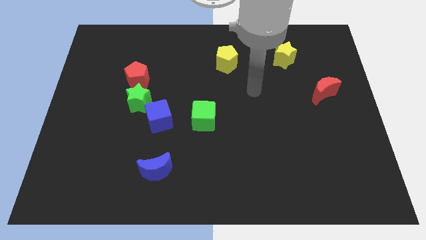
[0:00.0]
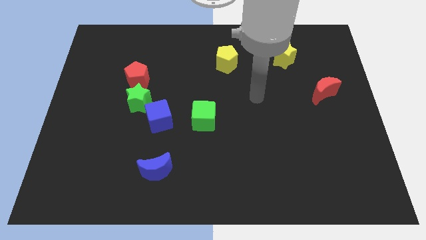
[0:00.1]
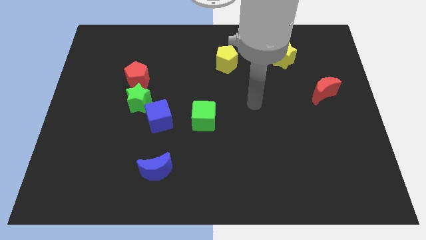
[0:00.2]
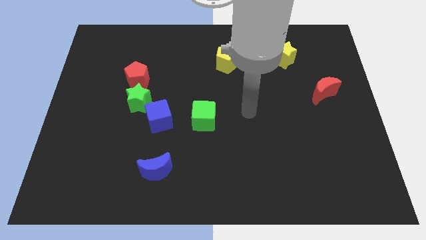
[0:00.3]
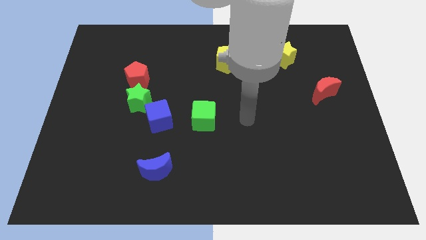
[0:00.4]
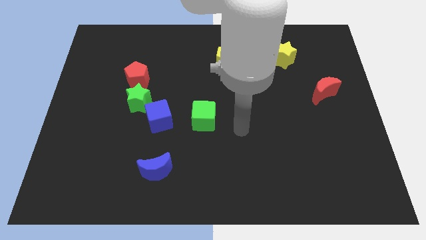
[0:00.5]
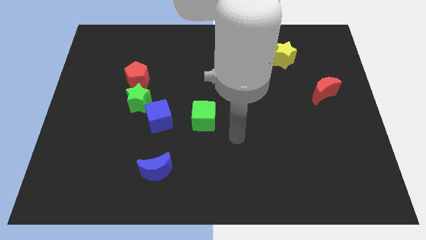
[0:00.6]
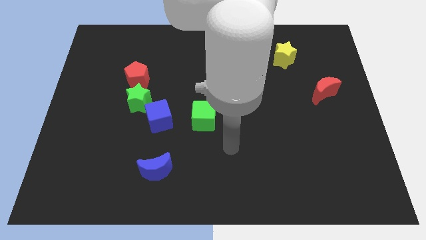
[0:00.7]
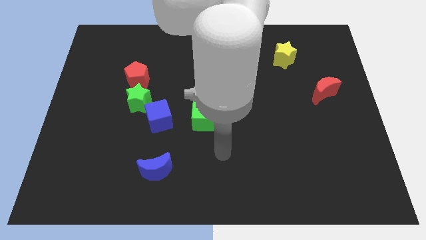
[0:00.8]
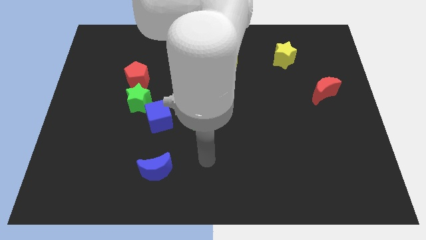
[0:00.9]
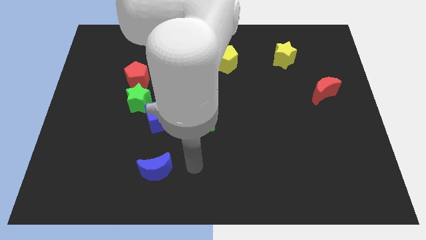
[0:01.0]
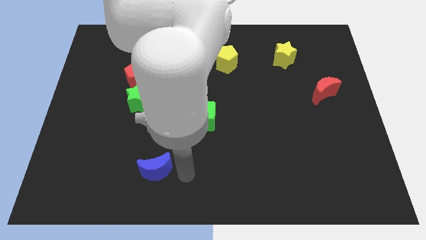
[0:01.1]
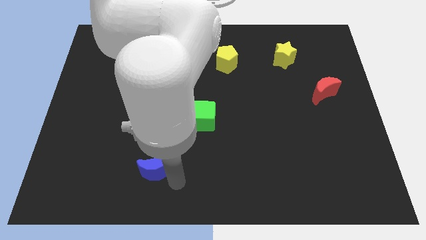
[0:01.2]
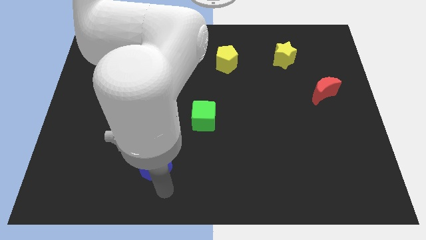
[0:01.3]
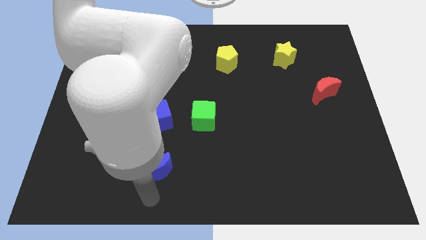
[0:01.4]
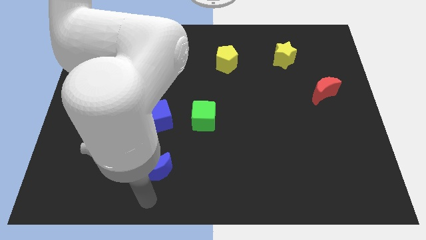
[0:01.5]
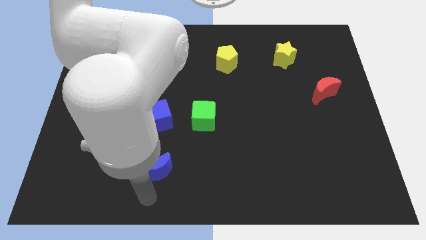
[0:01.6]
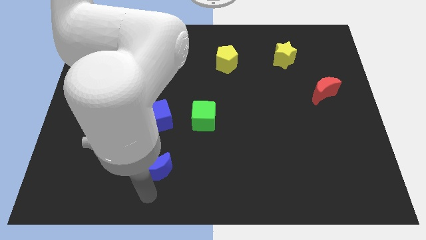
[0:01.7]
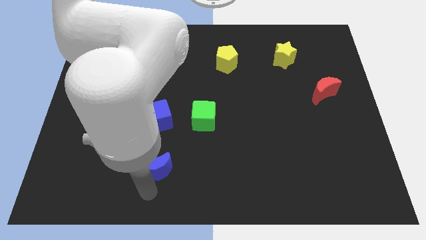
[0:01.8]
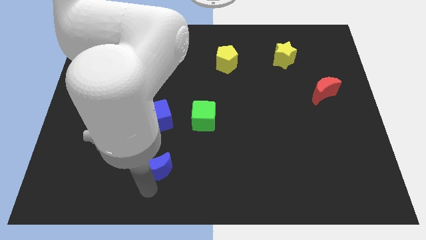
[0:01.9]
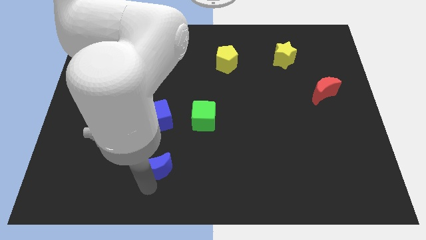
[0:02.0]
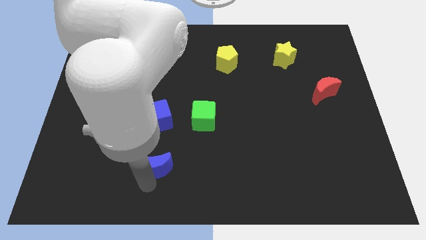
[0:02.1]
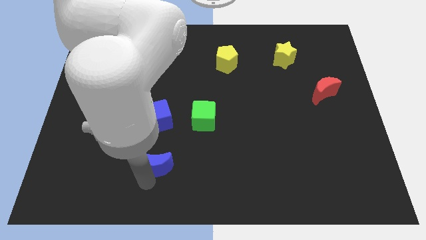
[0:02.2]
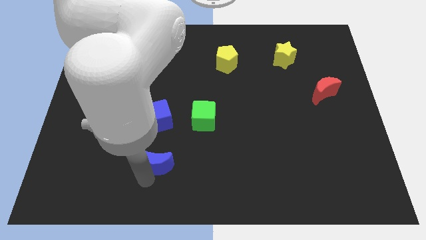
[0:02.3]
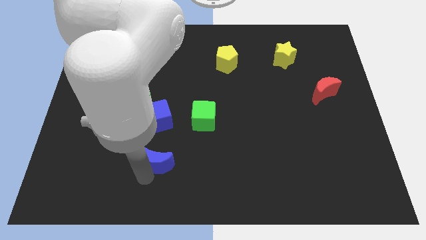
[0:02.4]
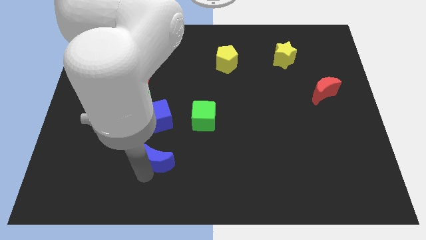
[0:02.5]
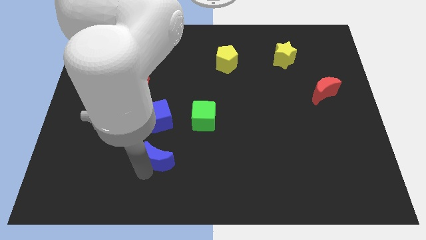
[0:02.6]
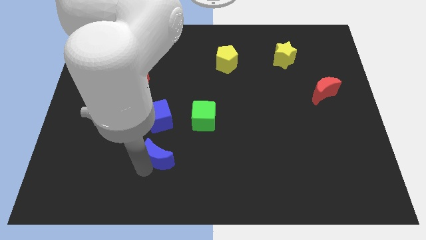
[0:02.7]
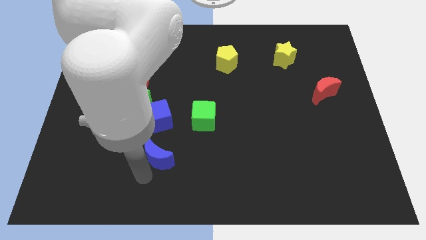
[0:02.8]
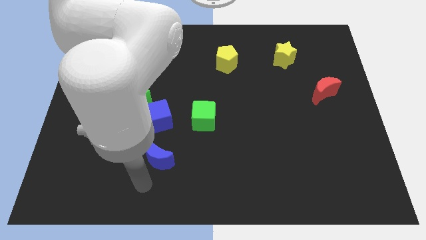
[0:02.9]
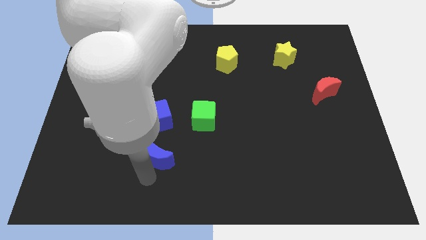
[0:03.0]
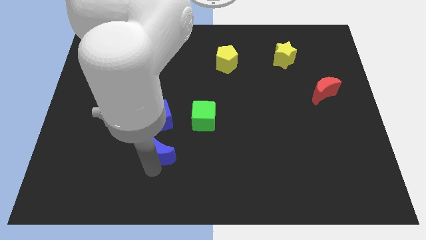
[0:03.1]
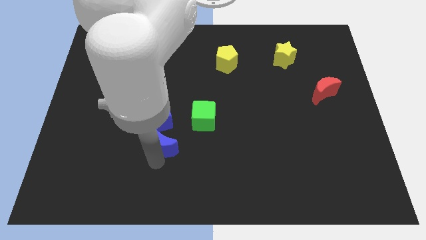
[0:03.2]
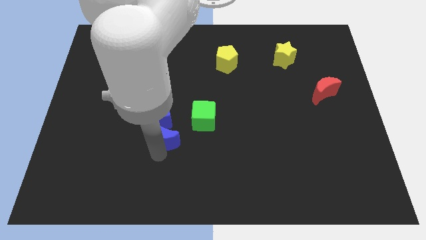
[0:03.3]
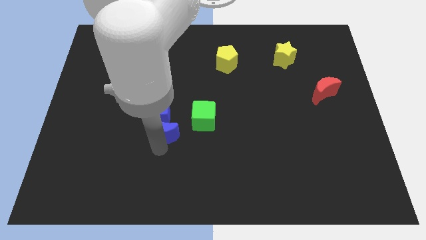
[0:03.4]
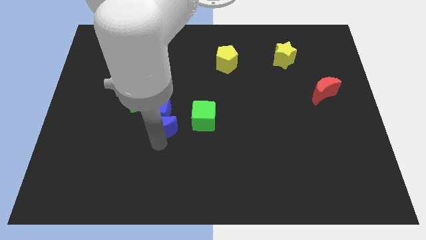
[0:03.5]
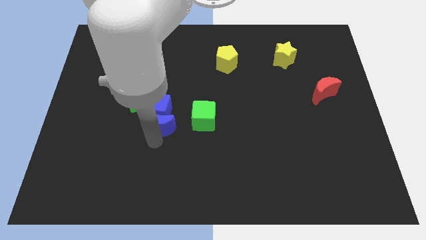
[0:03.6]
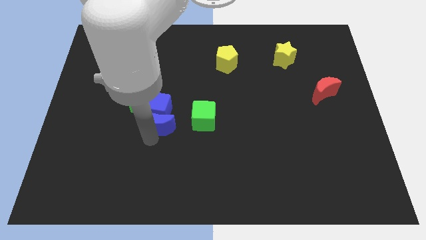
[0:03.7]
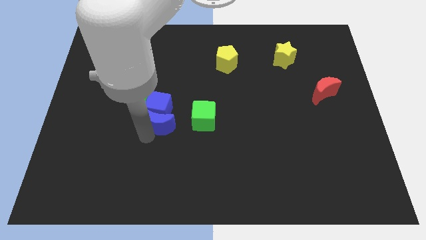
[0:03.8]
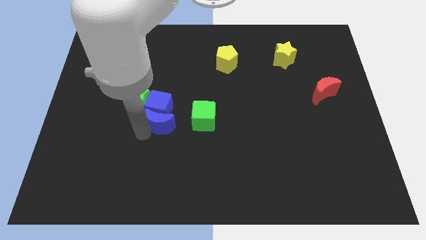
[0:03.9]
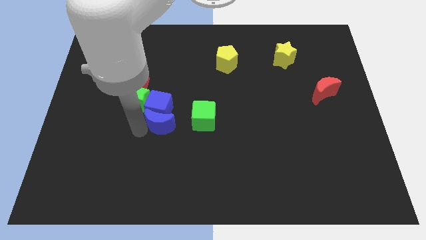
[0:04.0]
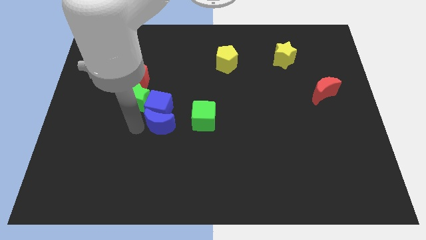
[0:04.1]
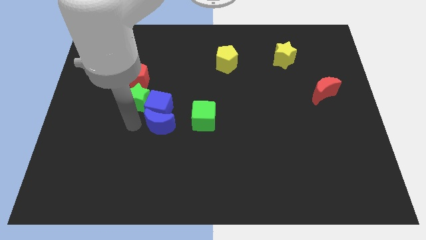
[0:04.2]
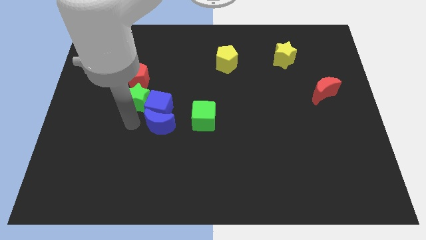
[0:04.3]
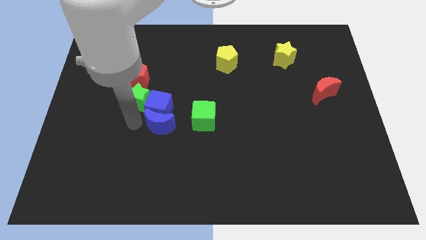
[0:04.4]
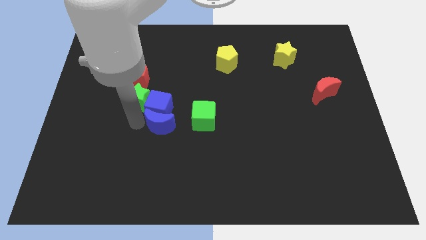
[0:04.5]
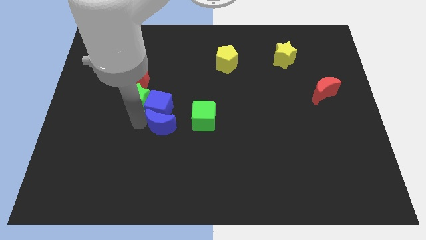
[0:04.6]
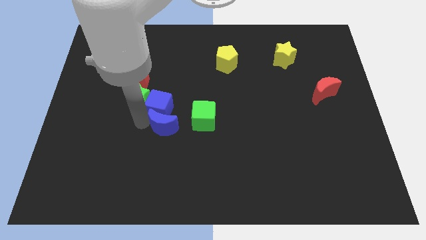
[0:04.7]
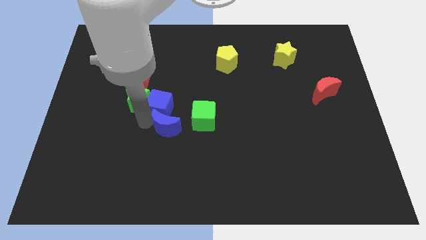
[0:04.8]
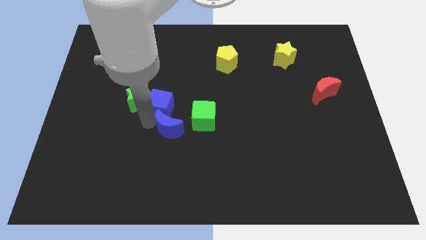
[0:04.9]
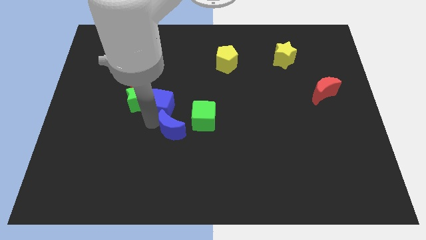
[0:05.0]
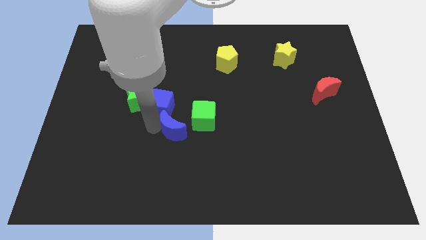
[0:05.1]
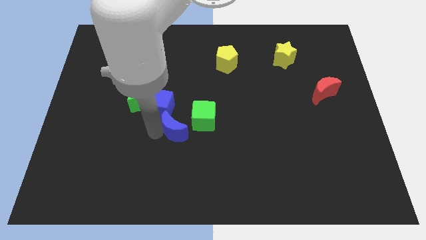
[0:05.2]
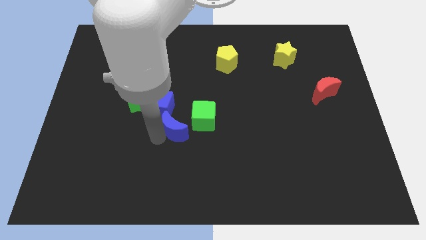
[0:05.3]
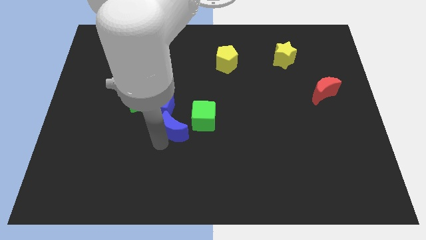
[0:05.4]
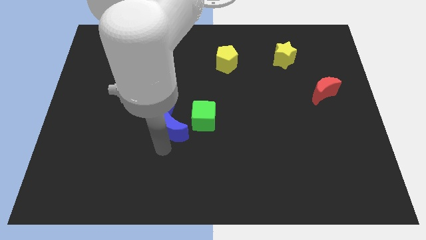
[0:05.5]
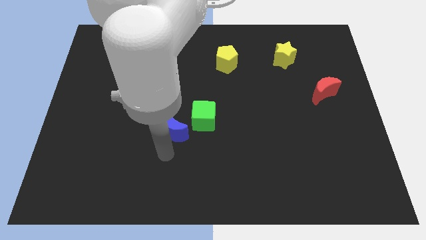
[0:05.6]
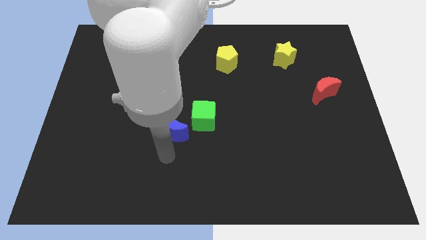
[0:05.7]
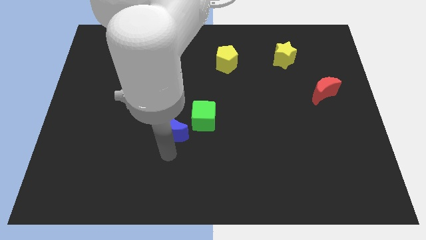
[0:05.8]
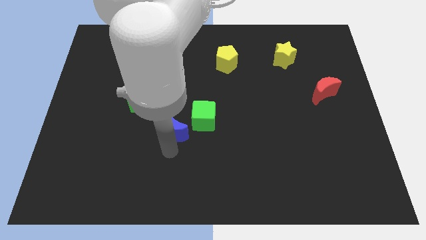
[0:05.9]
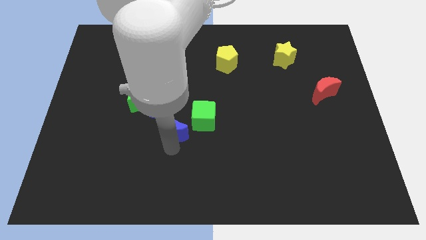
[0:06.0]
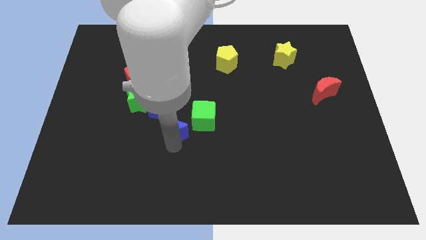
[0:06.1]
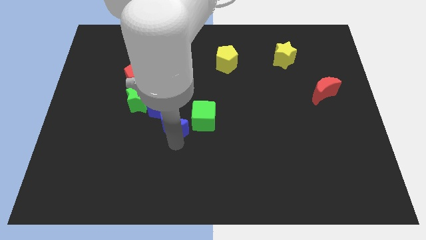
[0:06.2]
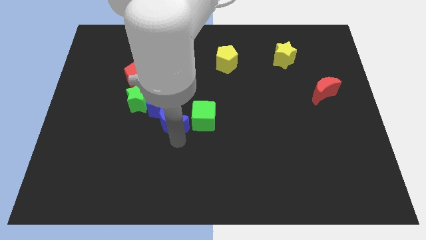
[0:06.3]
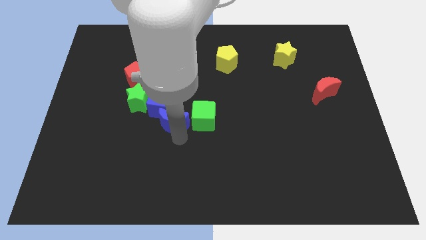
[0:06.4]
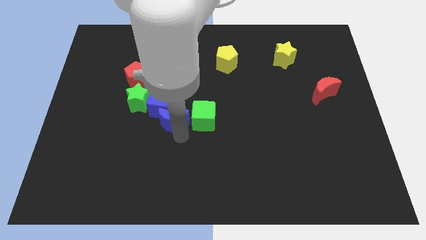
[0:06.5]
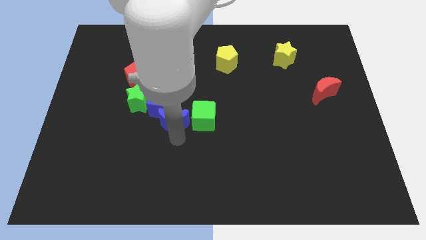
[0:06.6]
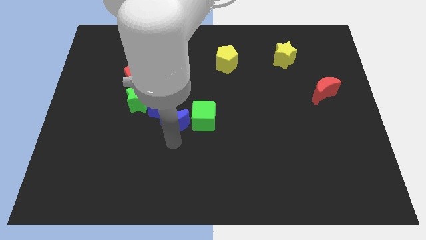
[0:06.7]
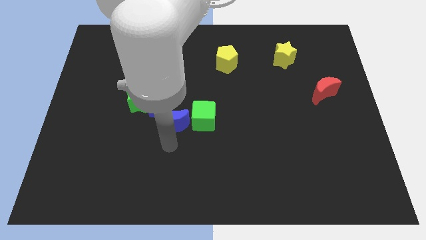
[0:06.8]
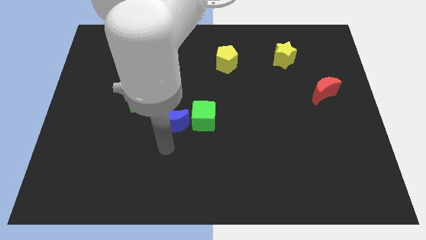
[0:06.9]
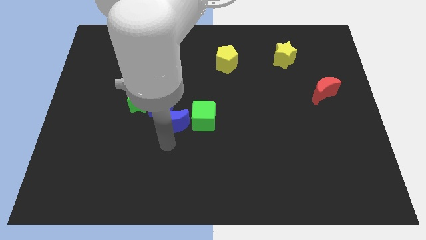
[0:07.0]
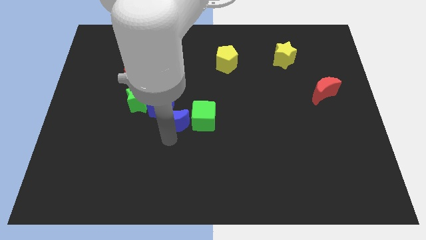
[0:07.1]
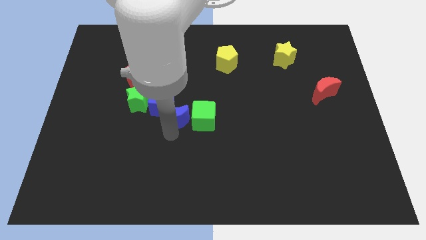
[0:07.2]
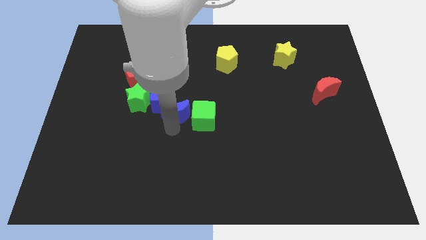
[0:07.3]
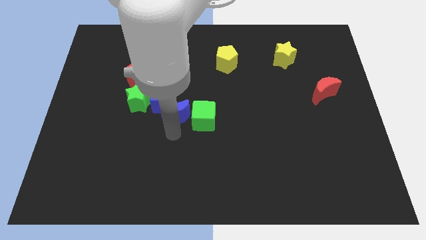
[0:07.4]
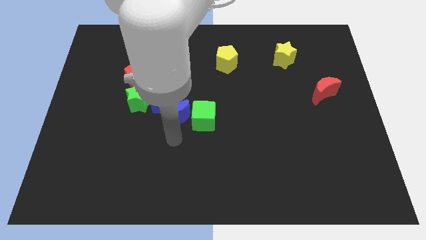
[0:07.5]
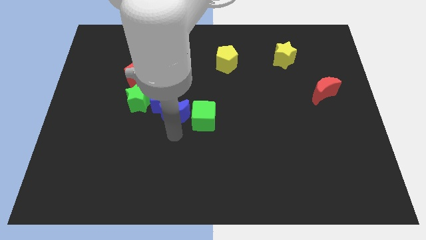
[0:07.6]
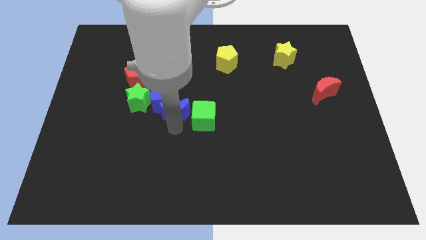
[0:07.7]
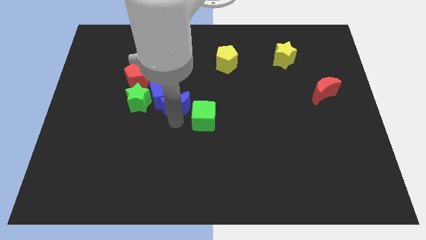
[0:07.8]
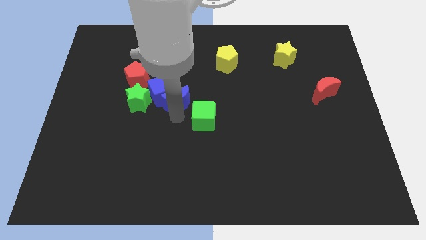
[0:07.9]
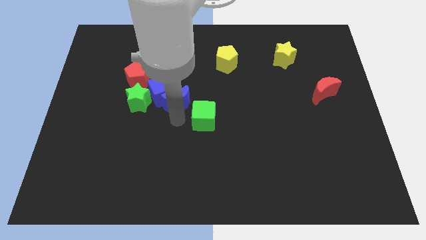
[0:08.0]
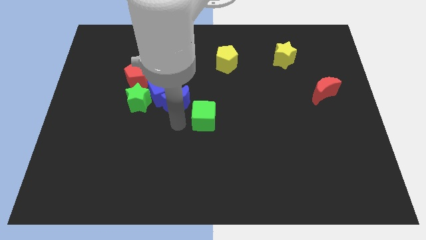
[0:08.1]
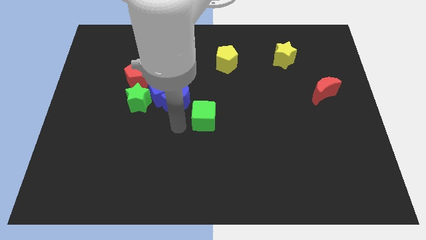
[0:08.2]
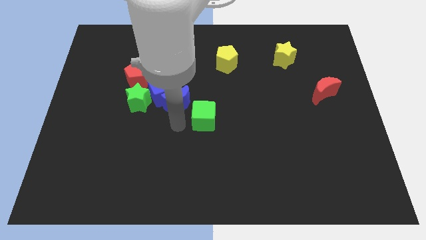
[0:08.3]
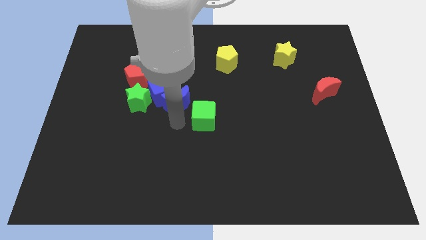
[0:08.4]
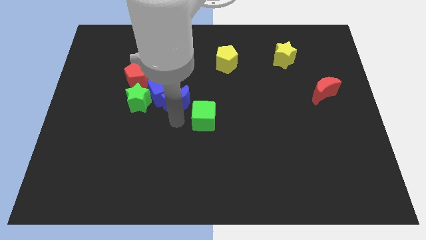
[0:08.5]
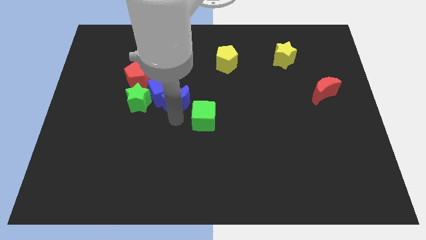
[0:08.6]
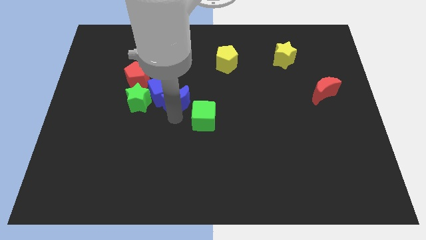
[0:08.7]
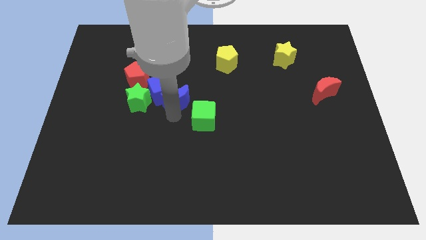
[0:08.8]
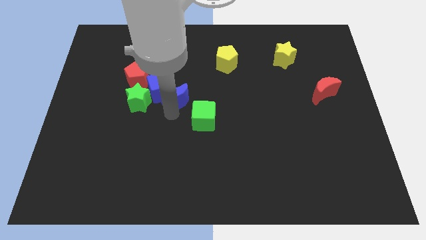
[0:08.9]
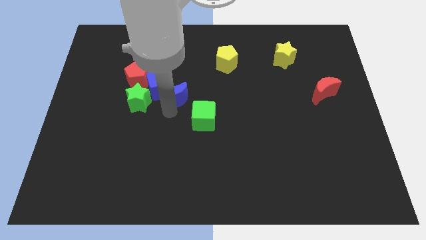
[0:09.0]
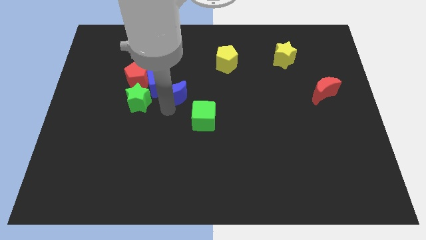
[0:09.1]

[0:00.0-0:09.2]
slide the blue moon upwards
